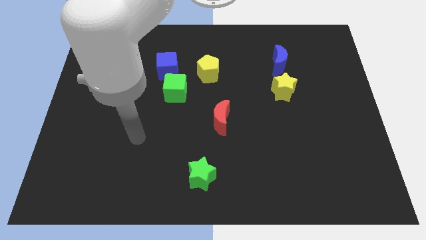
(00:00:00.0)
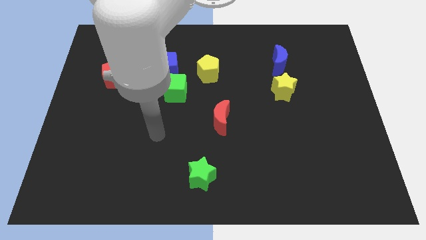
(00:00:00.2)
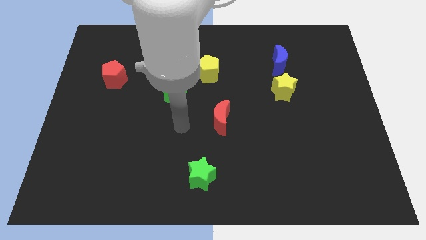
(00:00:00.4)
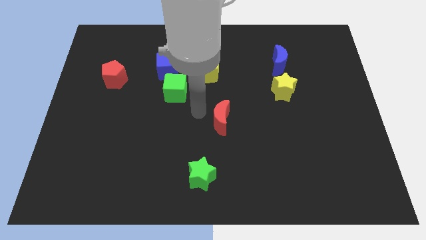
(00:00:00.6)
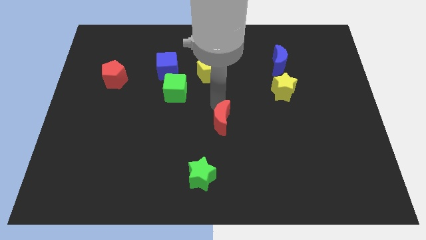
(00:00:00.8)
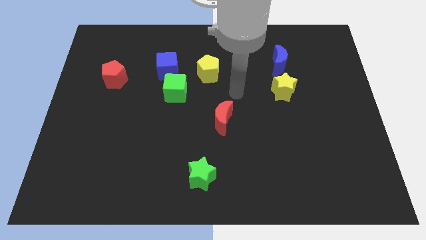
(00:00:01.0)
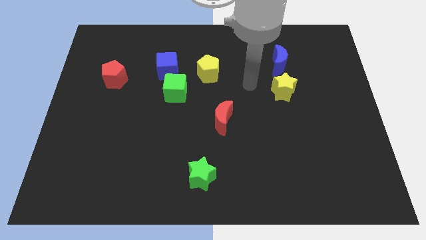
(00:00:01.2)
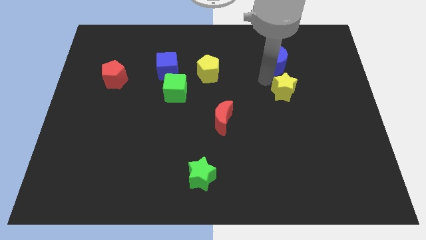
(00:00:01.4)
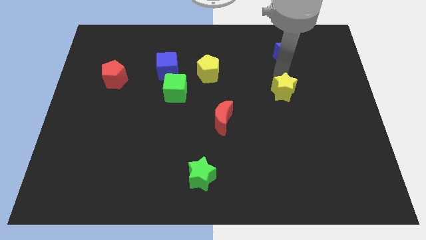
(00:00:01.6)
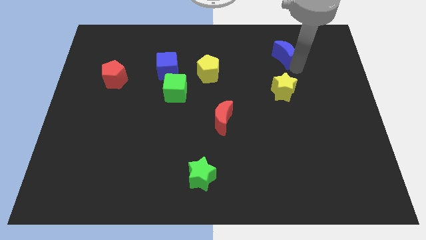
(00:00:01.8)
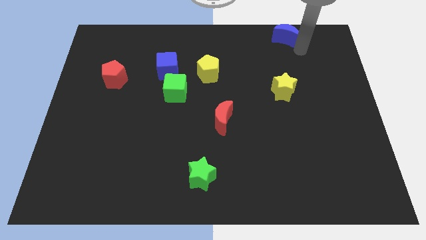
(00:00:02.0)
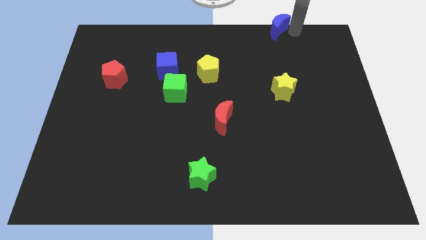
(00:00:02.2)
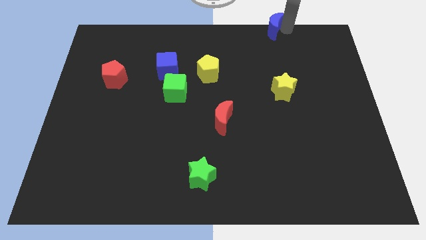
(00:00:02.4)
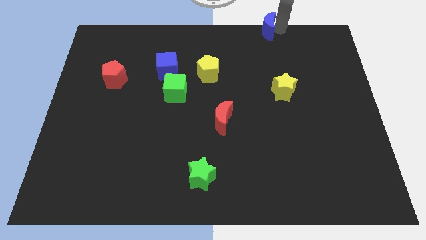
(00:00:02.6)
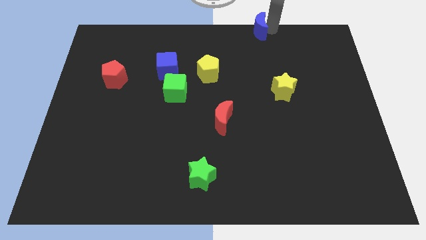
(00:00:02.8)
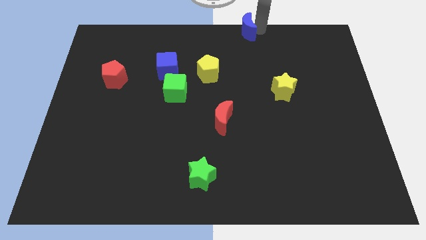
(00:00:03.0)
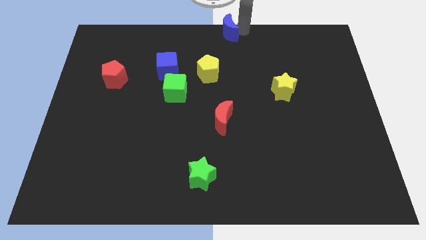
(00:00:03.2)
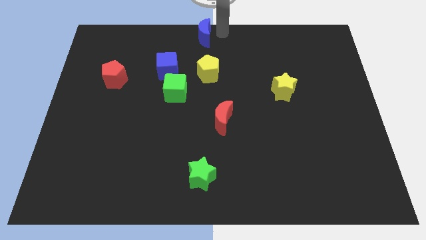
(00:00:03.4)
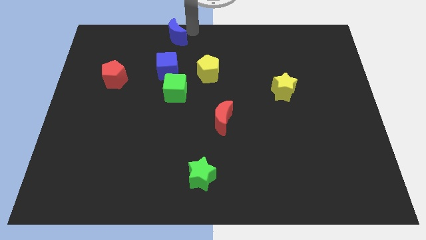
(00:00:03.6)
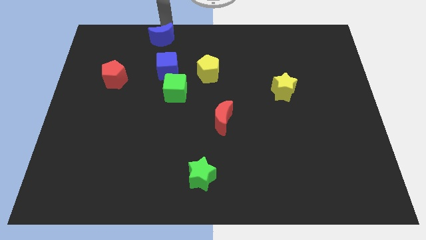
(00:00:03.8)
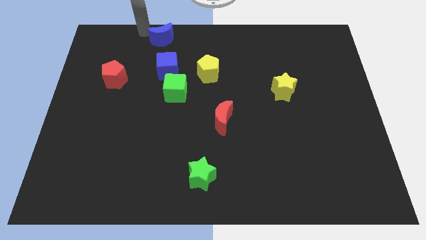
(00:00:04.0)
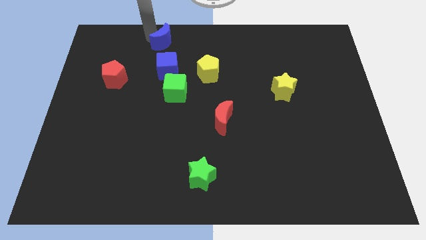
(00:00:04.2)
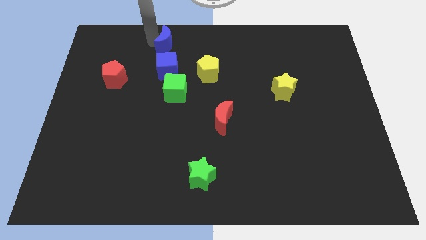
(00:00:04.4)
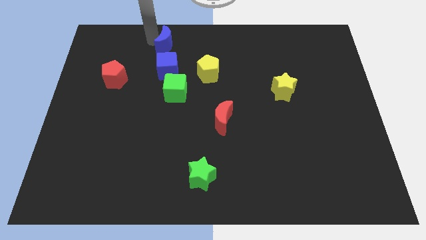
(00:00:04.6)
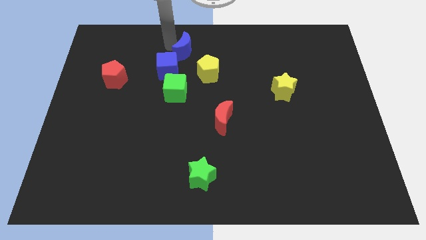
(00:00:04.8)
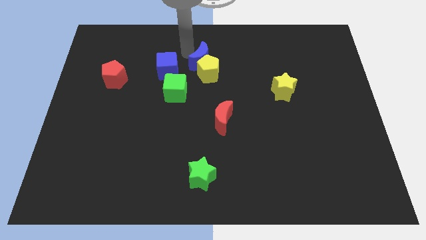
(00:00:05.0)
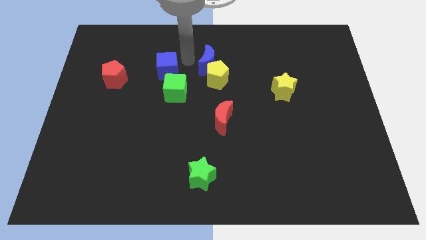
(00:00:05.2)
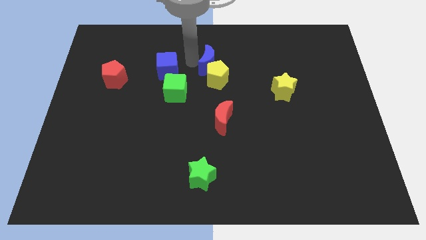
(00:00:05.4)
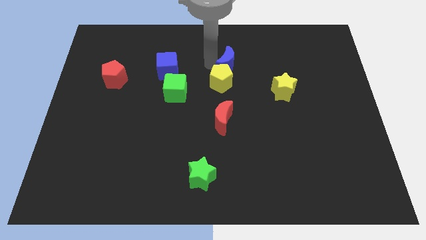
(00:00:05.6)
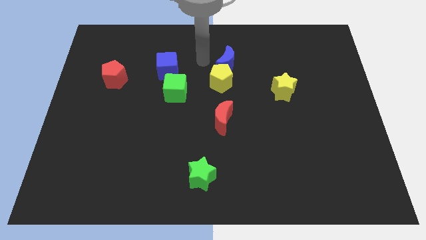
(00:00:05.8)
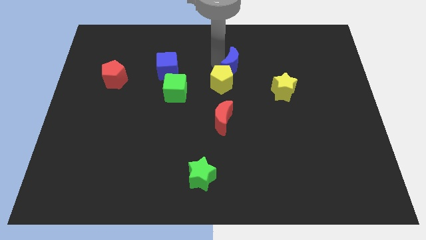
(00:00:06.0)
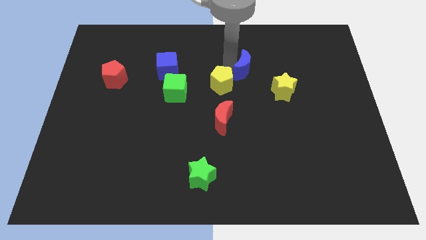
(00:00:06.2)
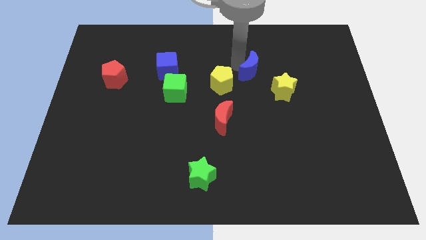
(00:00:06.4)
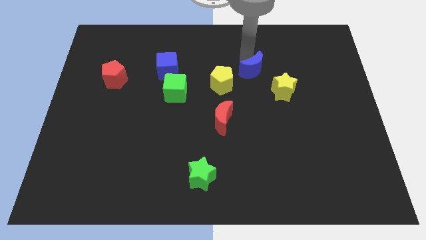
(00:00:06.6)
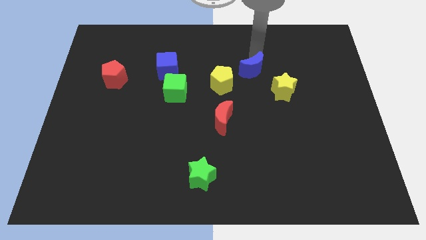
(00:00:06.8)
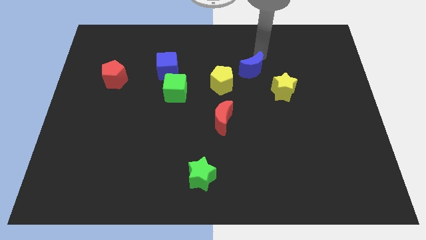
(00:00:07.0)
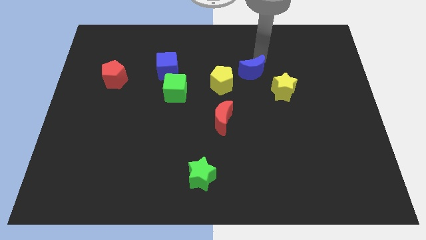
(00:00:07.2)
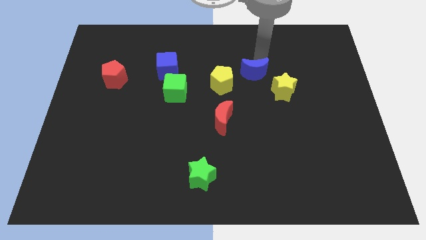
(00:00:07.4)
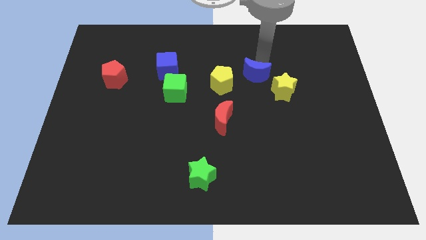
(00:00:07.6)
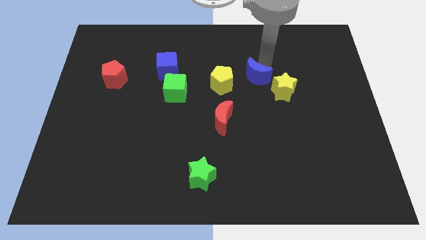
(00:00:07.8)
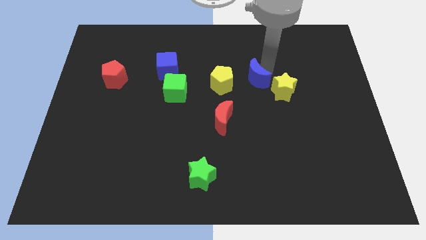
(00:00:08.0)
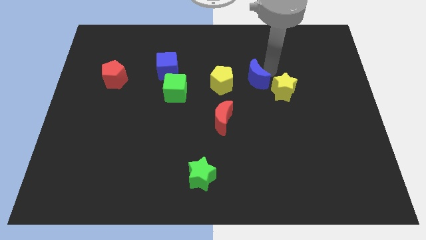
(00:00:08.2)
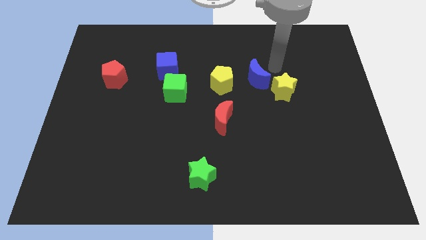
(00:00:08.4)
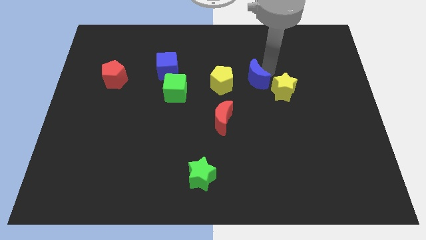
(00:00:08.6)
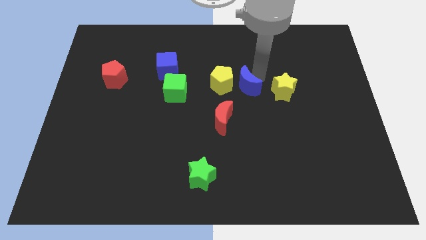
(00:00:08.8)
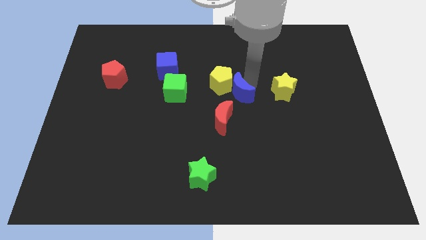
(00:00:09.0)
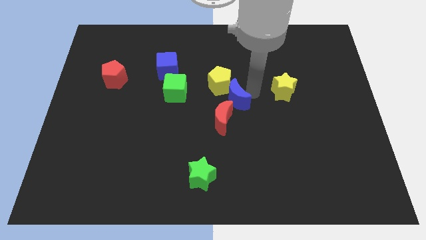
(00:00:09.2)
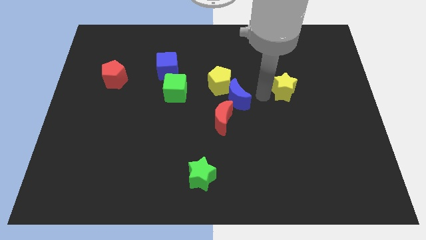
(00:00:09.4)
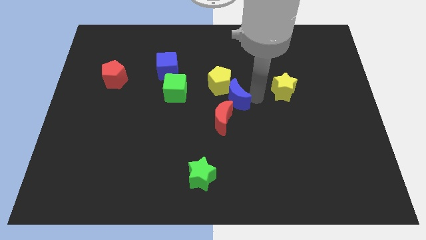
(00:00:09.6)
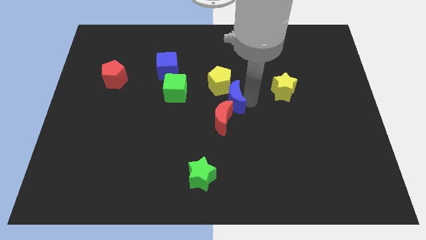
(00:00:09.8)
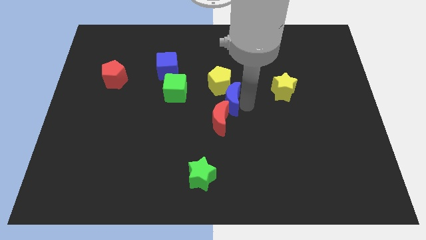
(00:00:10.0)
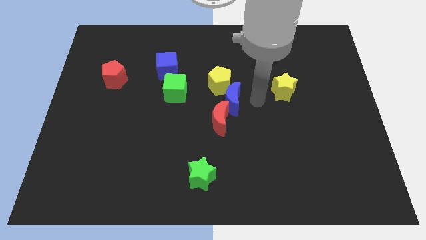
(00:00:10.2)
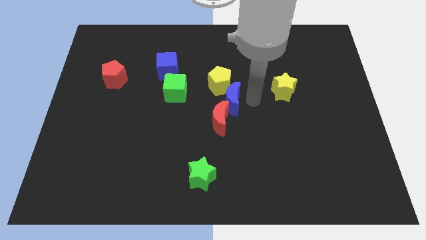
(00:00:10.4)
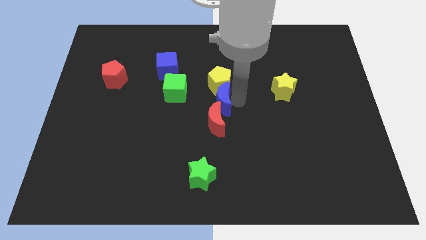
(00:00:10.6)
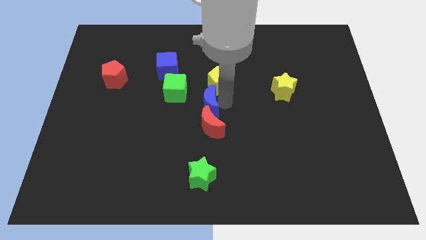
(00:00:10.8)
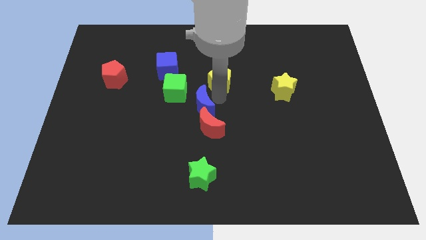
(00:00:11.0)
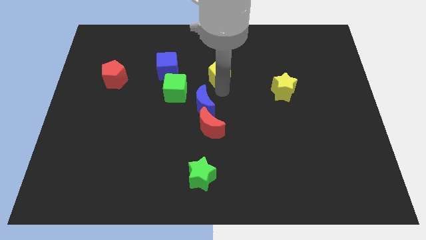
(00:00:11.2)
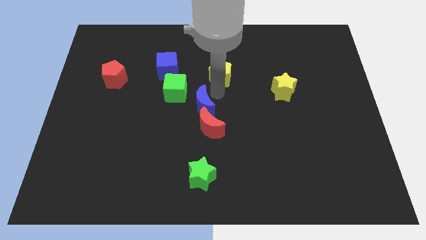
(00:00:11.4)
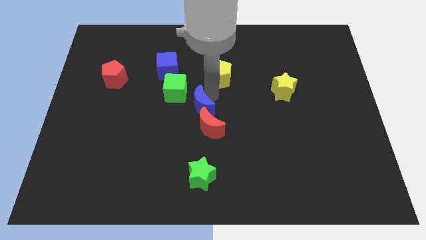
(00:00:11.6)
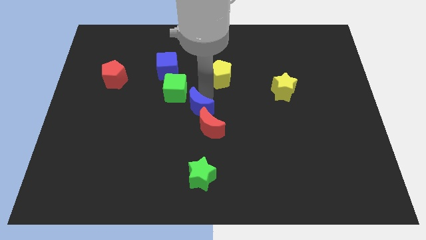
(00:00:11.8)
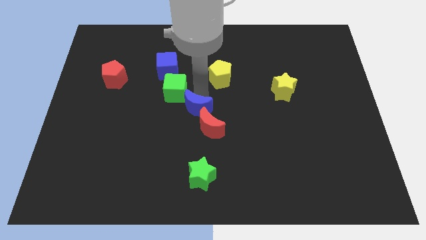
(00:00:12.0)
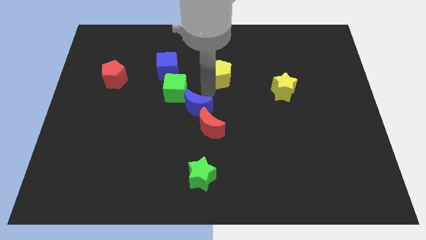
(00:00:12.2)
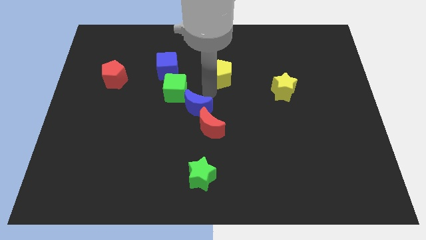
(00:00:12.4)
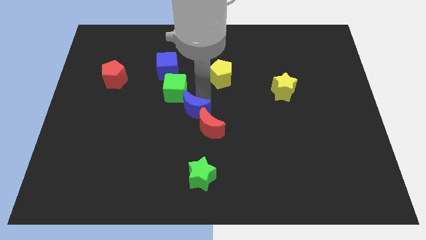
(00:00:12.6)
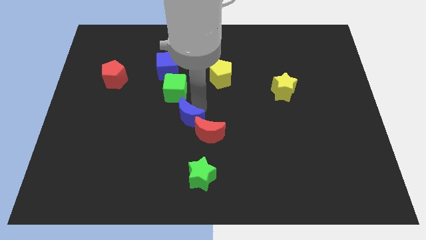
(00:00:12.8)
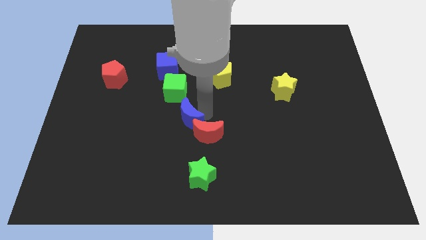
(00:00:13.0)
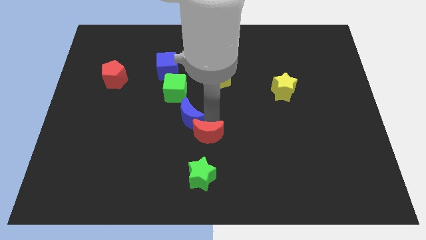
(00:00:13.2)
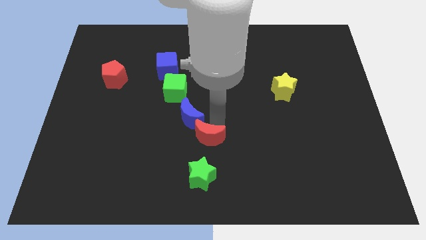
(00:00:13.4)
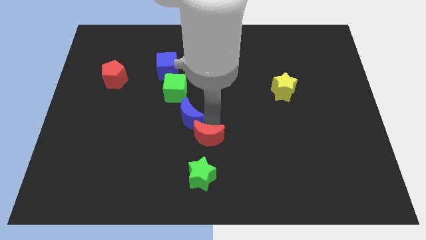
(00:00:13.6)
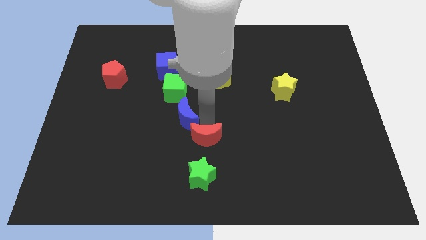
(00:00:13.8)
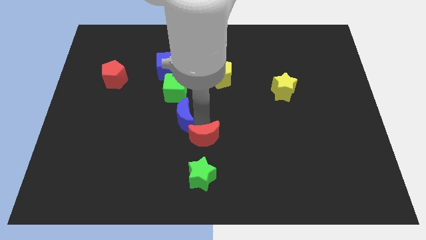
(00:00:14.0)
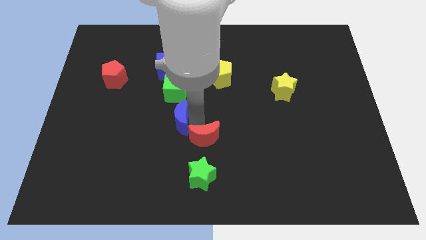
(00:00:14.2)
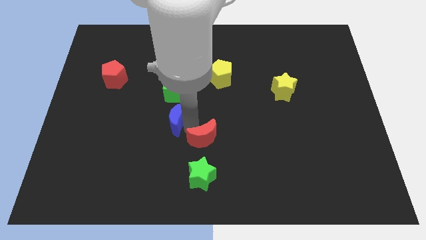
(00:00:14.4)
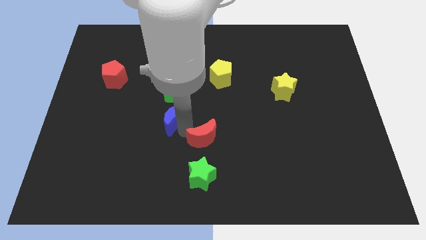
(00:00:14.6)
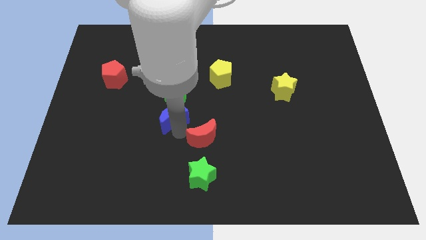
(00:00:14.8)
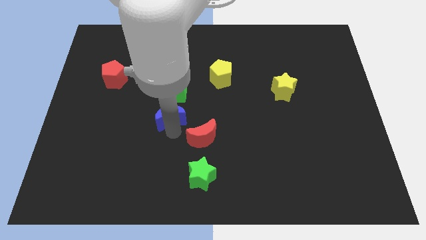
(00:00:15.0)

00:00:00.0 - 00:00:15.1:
push the blue moon to the bottom of the blue cube

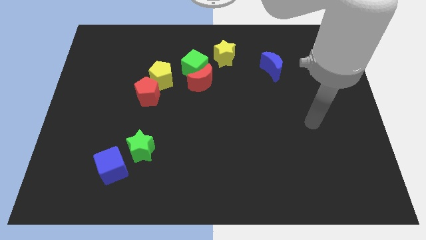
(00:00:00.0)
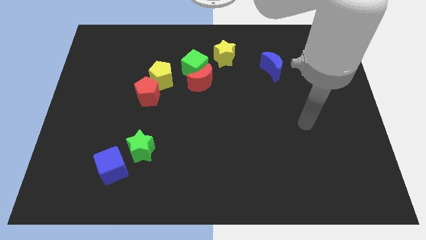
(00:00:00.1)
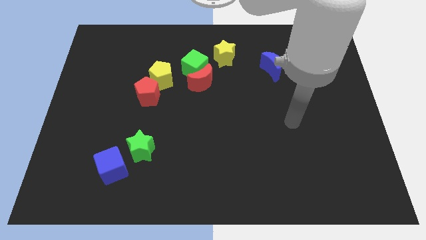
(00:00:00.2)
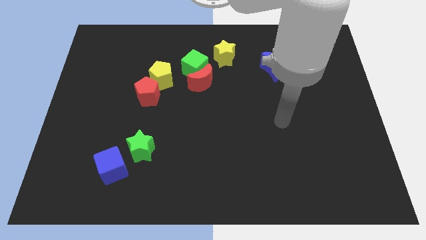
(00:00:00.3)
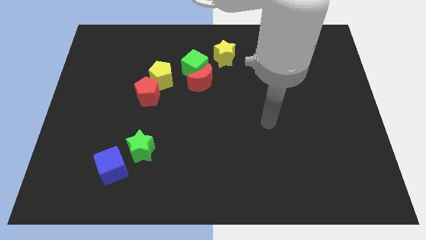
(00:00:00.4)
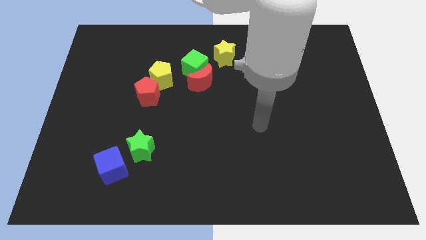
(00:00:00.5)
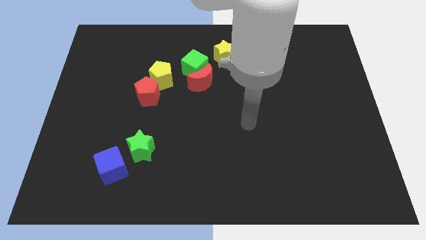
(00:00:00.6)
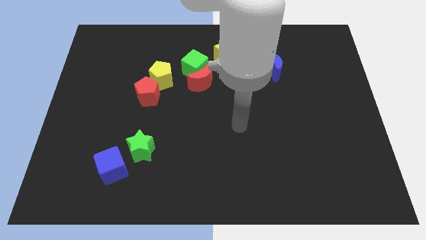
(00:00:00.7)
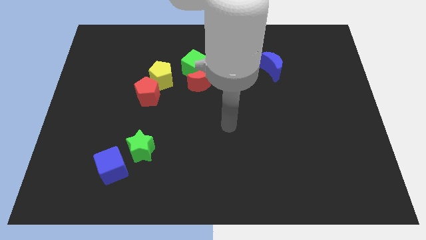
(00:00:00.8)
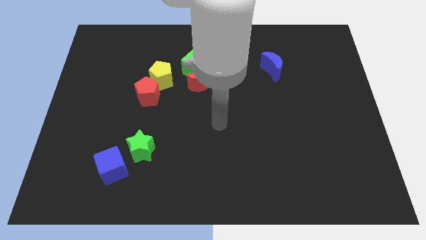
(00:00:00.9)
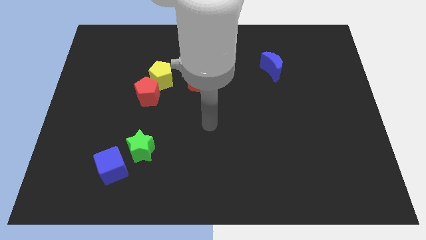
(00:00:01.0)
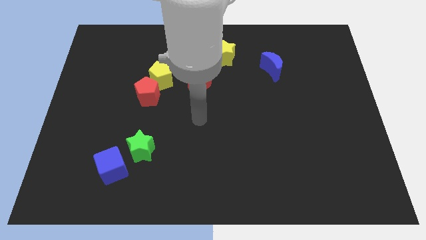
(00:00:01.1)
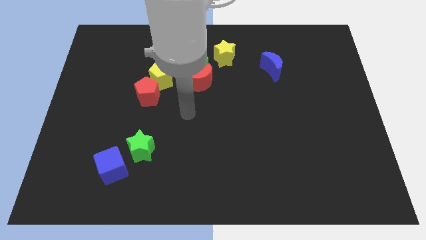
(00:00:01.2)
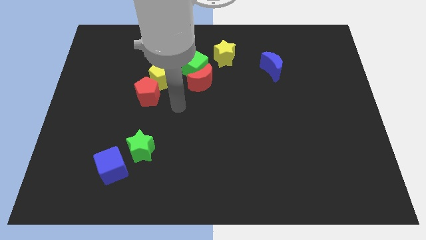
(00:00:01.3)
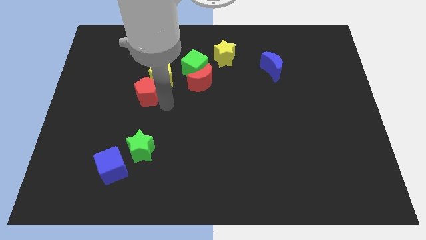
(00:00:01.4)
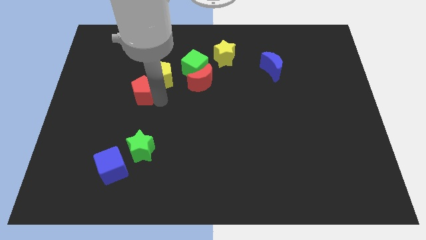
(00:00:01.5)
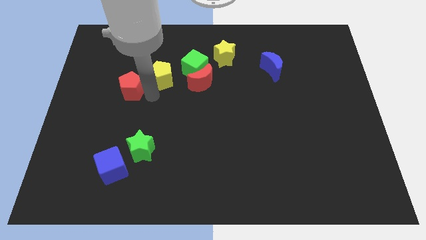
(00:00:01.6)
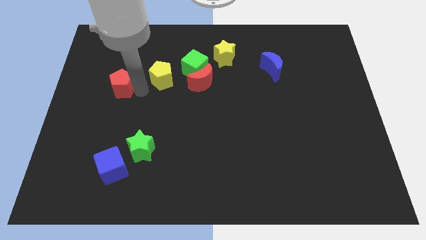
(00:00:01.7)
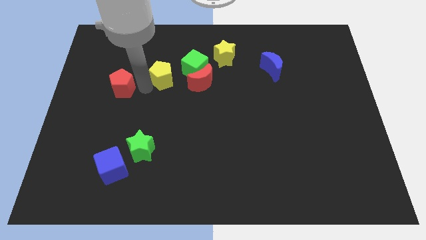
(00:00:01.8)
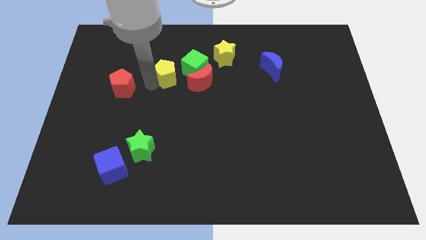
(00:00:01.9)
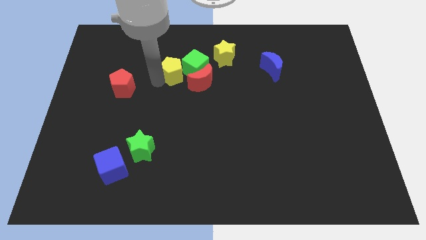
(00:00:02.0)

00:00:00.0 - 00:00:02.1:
slide the yellow pentagon to the top left of the red moon
